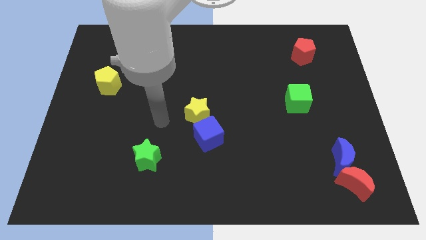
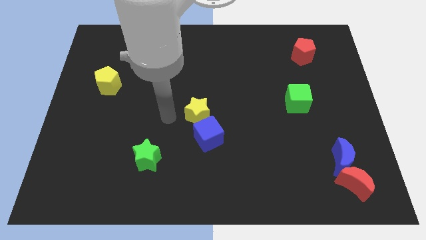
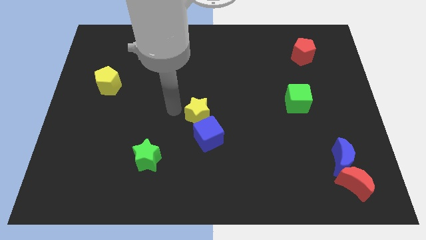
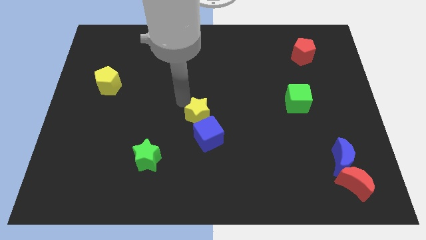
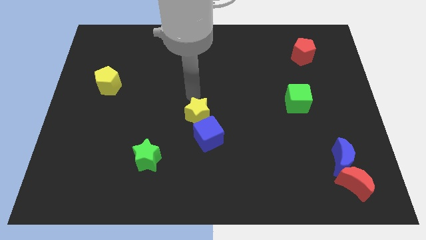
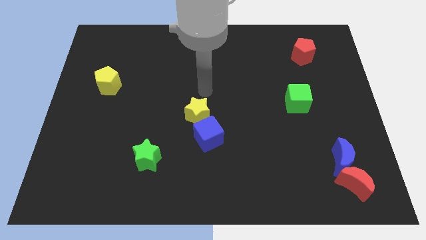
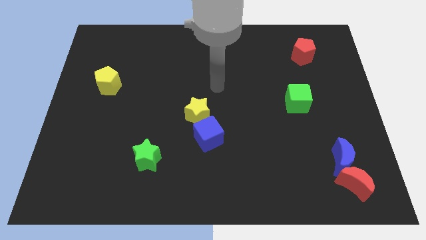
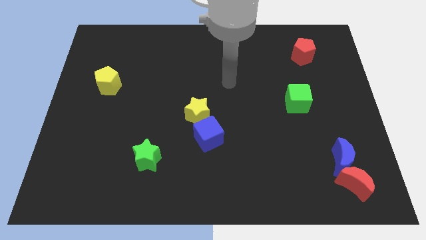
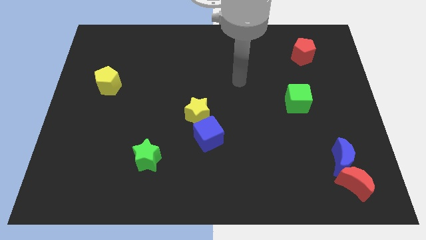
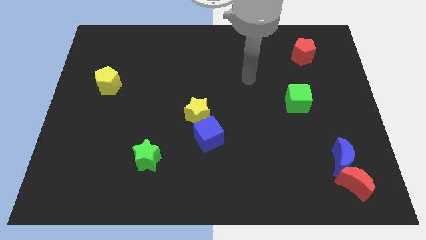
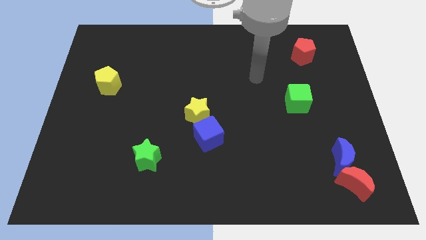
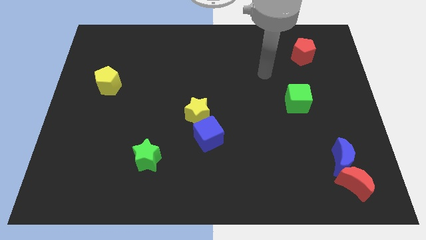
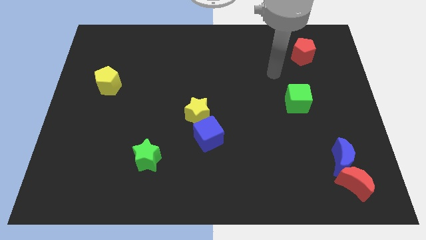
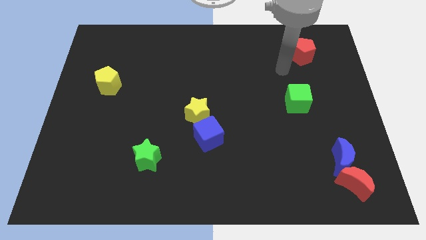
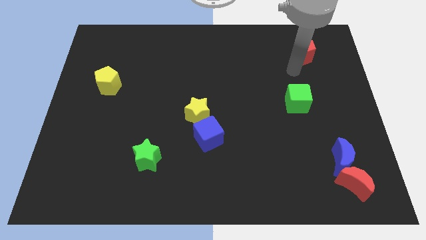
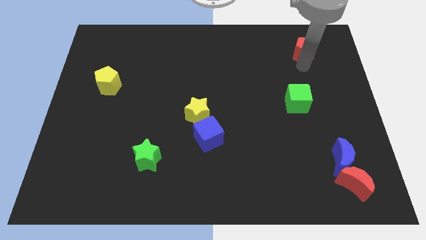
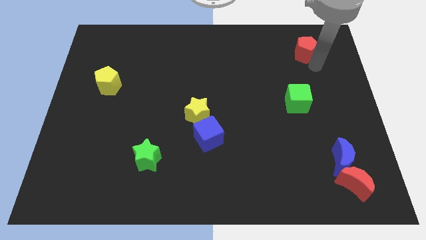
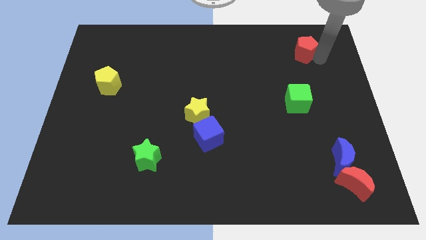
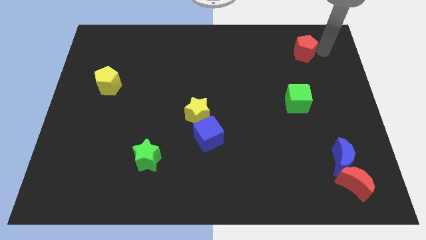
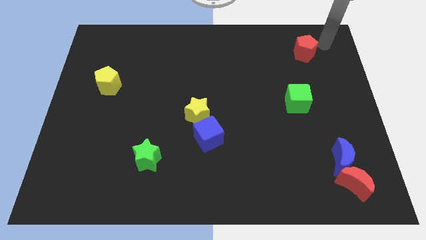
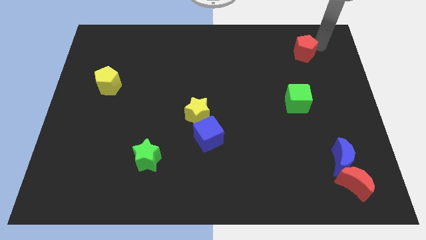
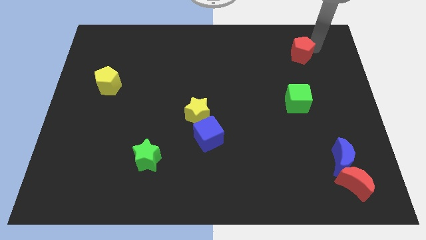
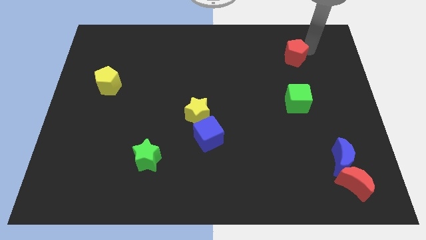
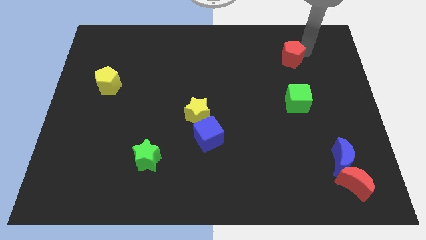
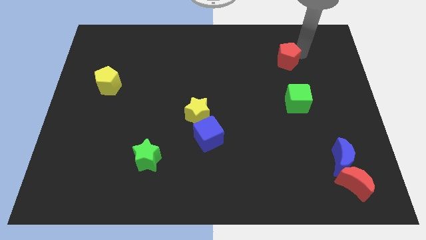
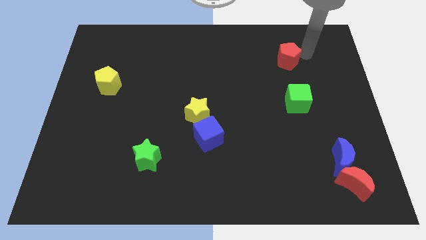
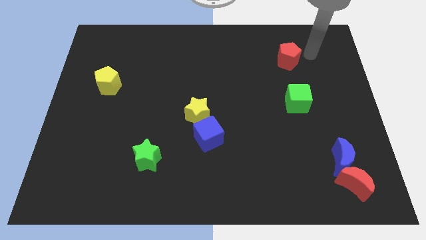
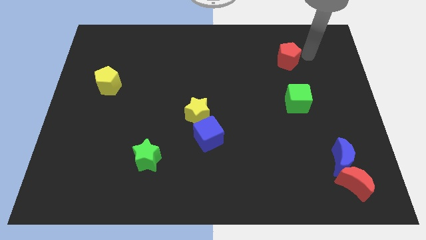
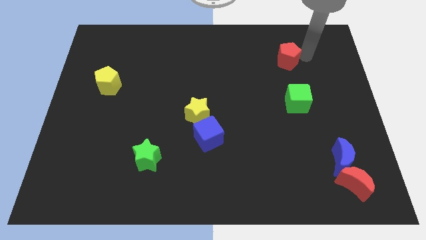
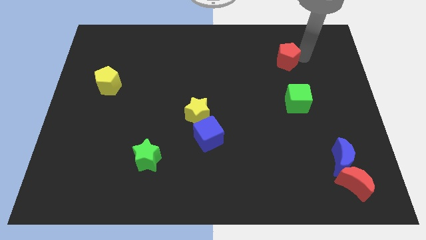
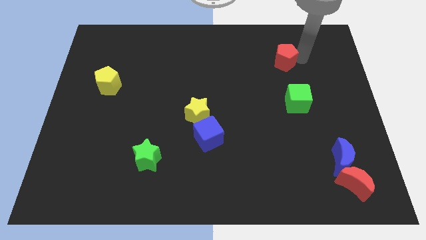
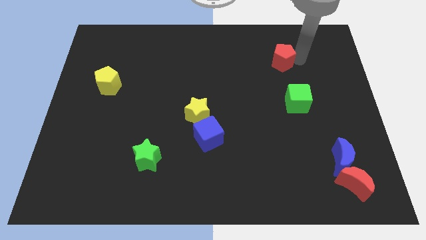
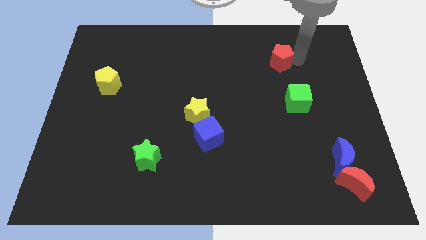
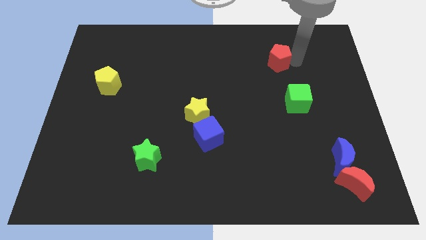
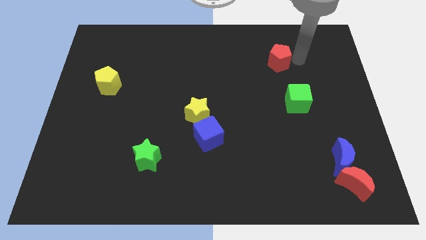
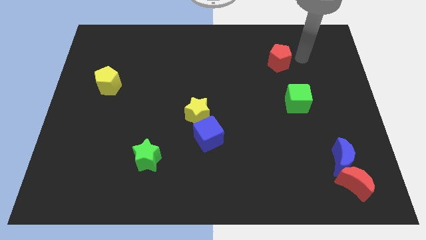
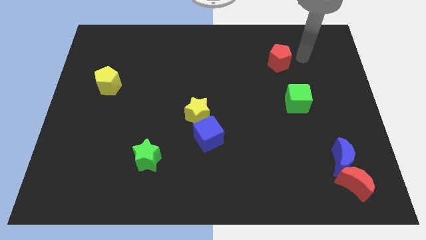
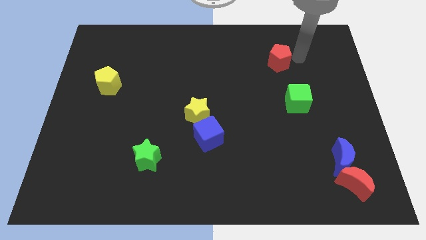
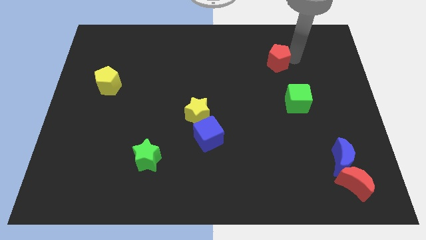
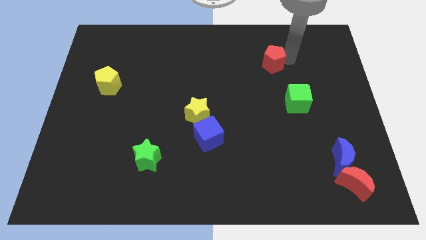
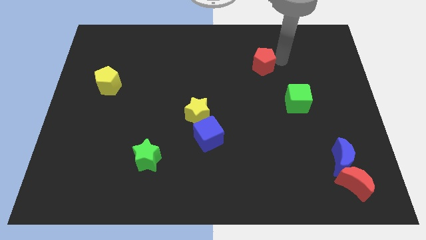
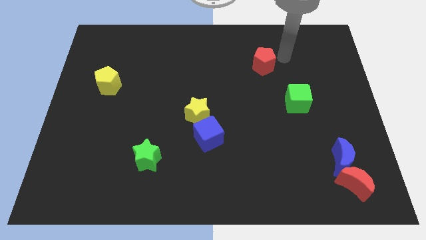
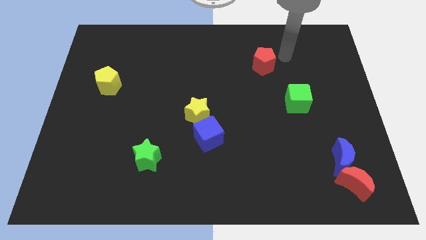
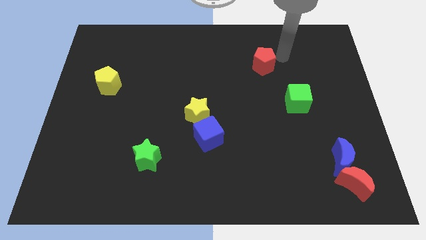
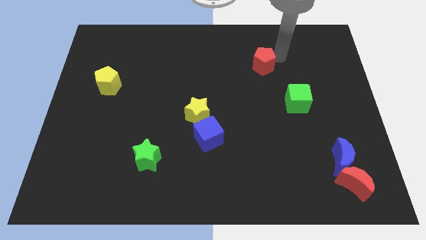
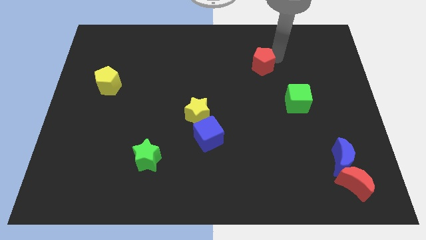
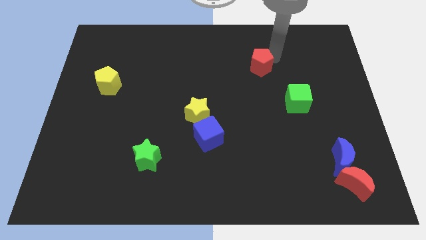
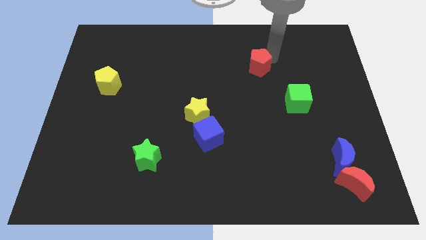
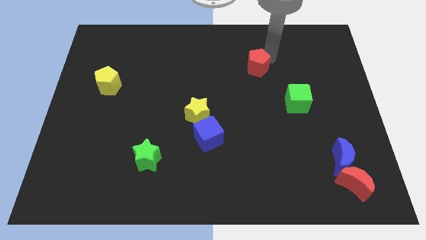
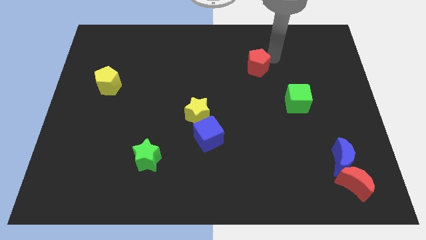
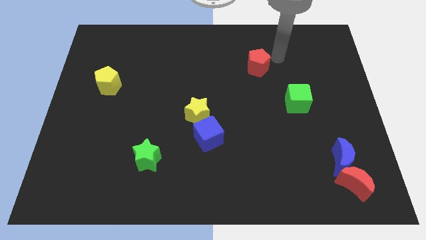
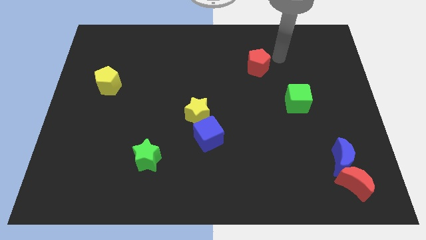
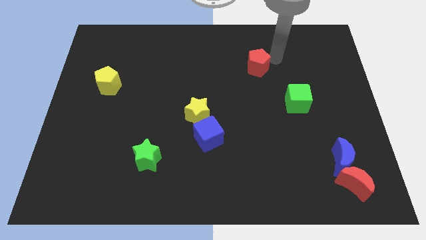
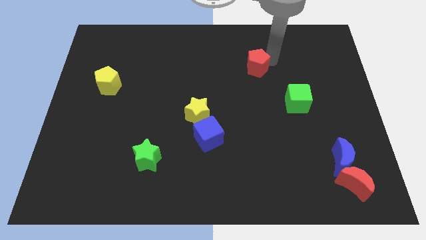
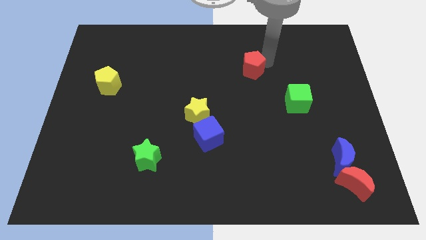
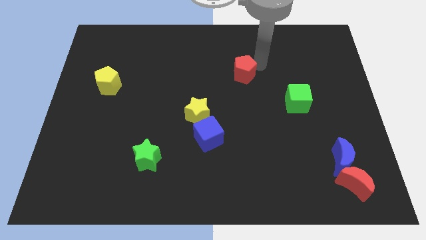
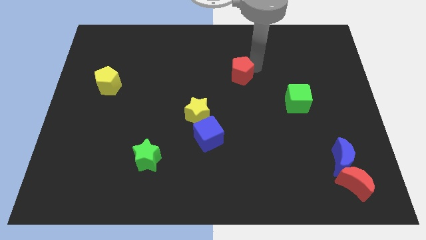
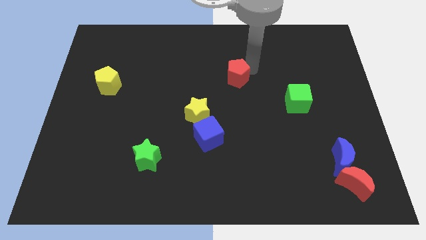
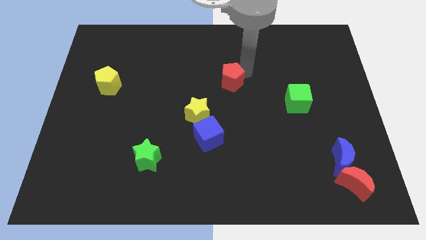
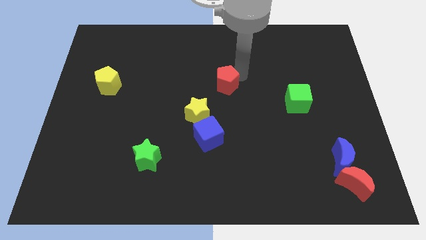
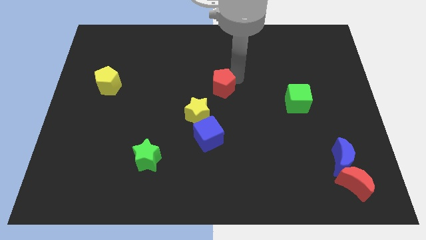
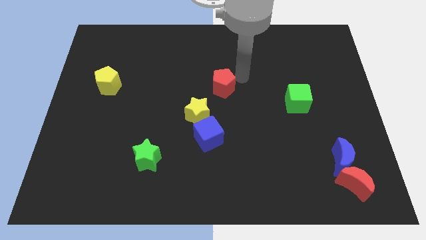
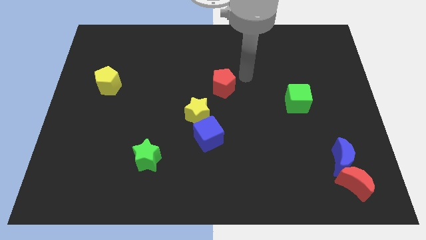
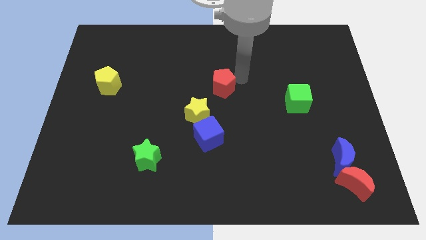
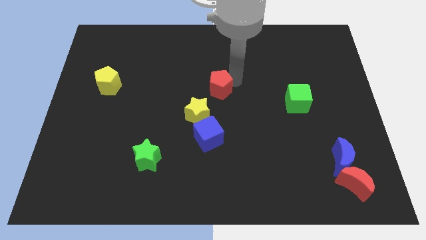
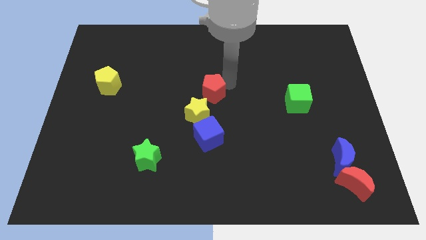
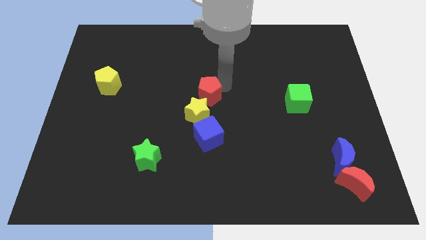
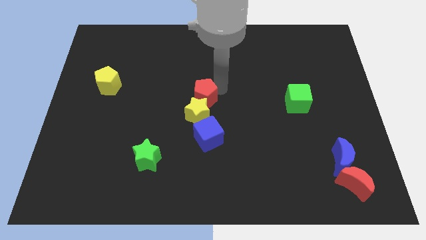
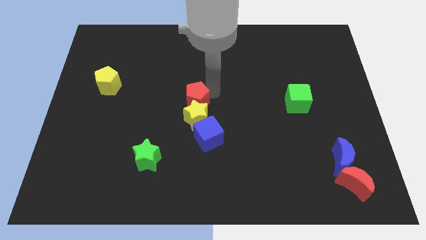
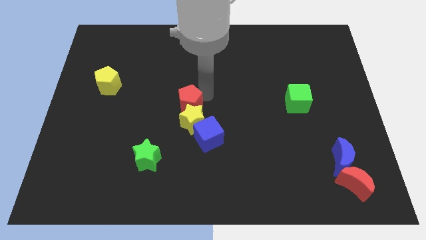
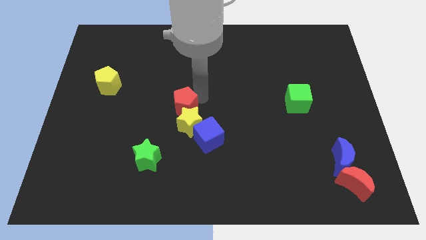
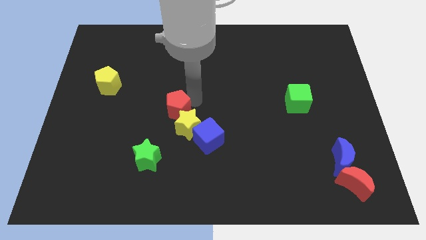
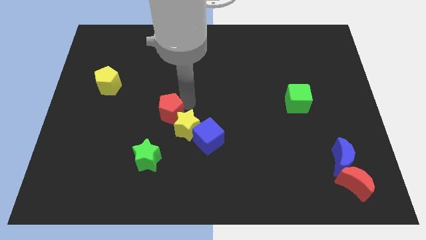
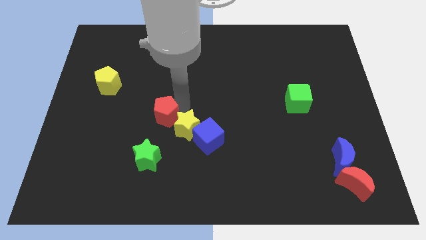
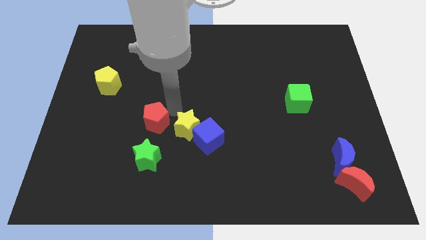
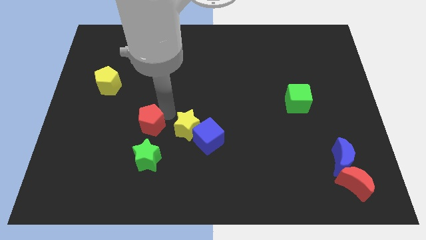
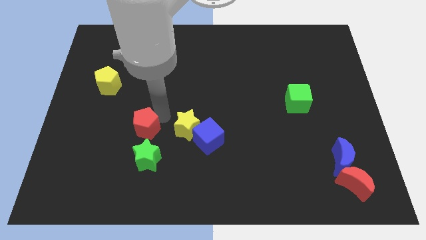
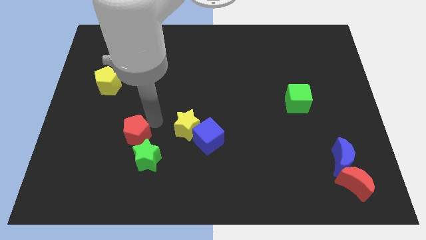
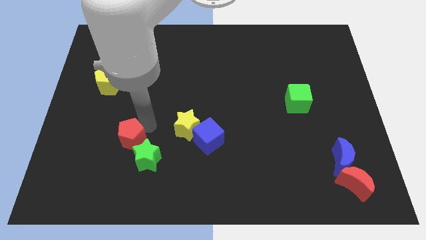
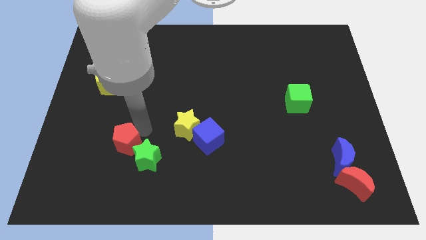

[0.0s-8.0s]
put the red pentagon just left of the green star
